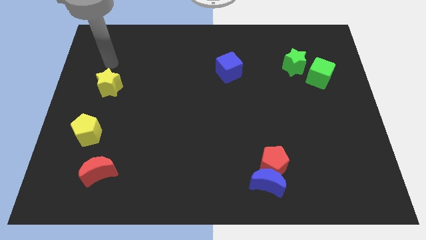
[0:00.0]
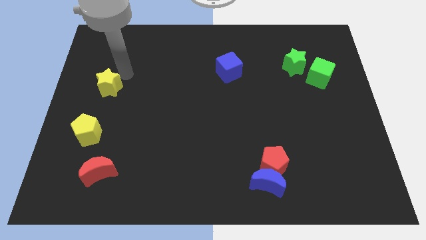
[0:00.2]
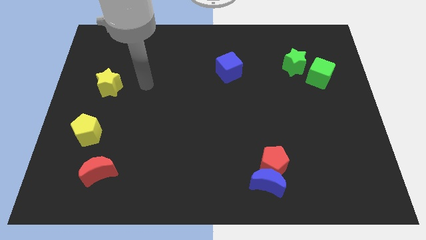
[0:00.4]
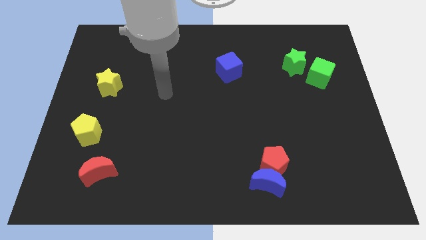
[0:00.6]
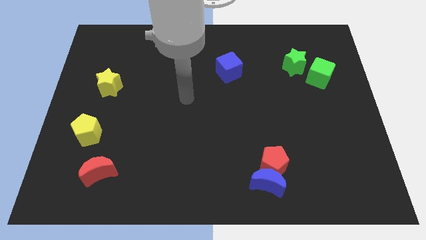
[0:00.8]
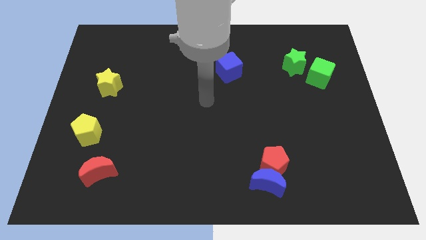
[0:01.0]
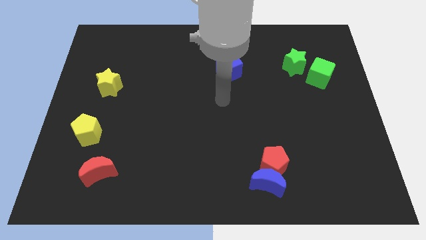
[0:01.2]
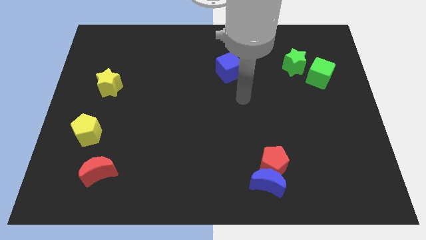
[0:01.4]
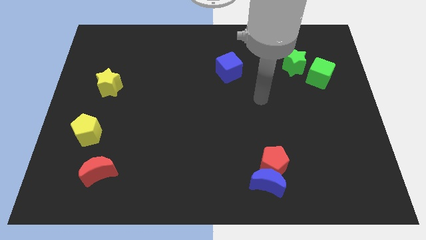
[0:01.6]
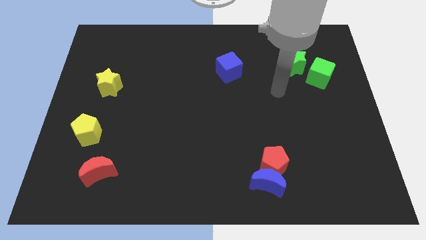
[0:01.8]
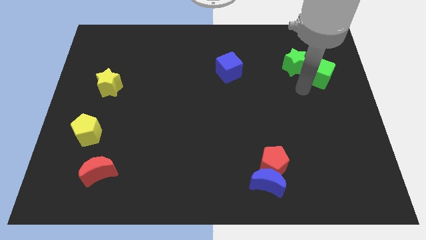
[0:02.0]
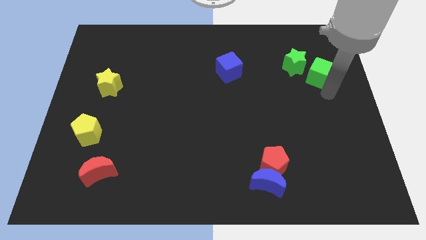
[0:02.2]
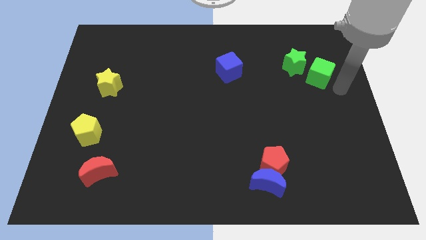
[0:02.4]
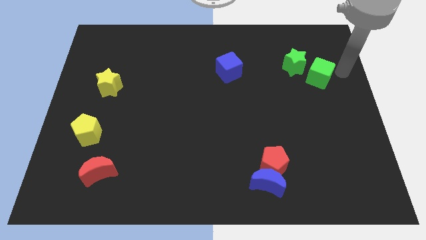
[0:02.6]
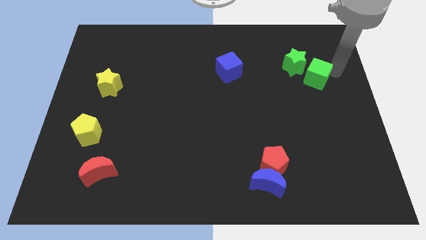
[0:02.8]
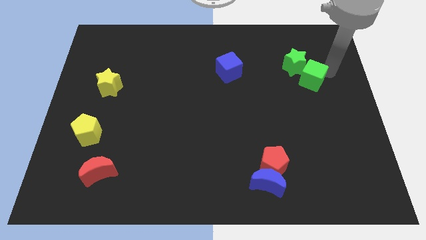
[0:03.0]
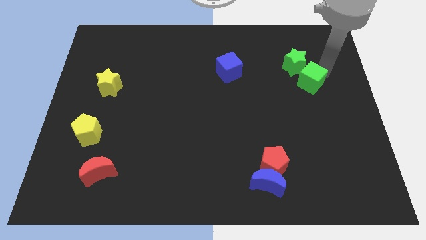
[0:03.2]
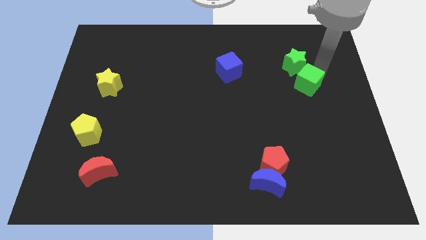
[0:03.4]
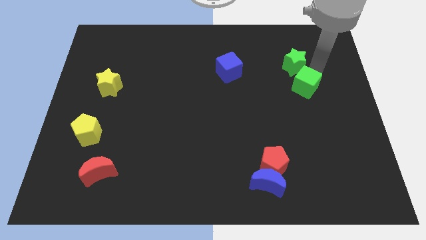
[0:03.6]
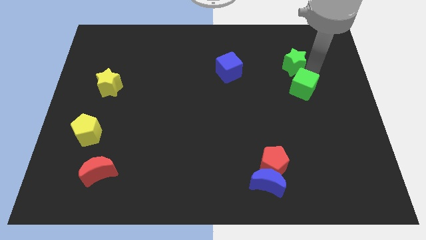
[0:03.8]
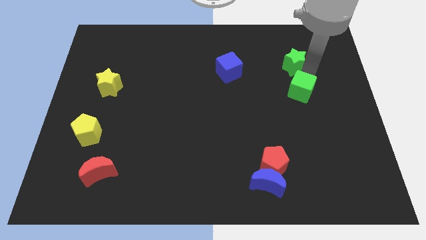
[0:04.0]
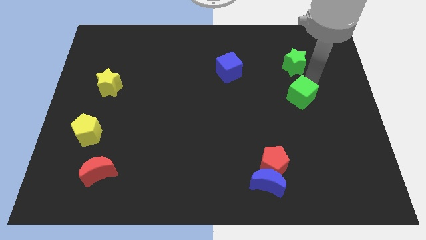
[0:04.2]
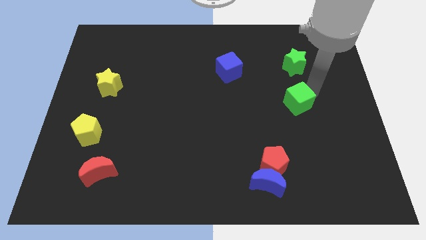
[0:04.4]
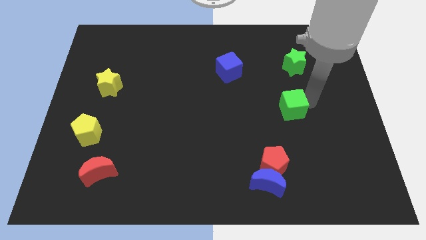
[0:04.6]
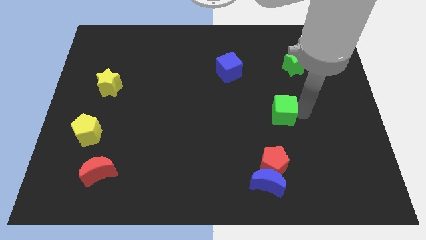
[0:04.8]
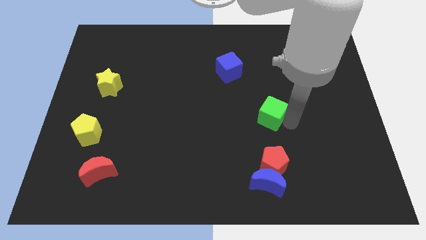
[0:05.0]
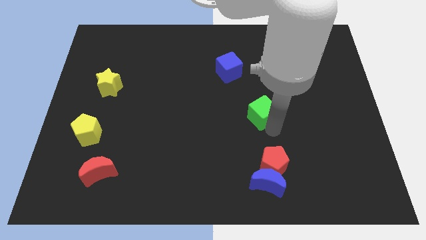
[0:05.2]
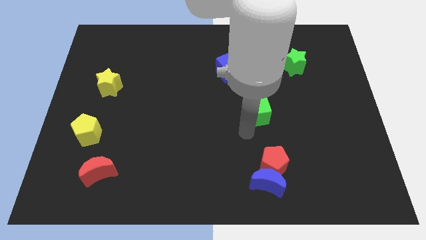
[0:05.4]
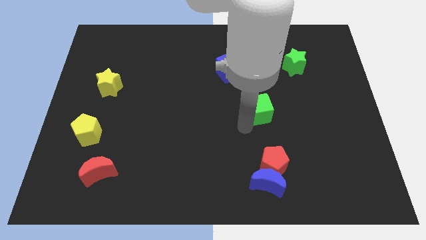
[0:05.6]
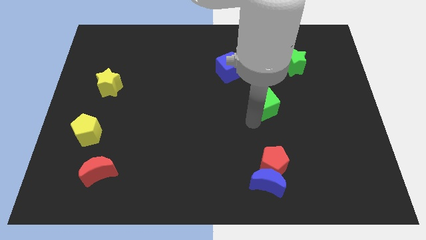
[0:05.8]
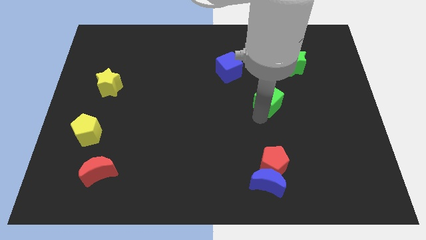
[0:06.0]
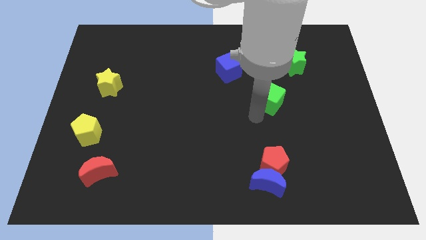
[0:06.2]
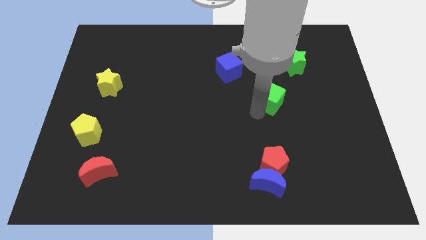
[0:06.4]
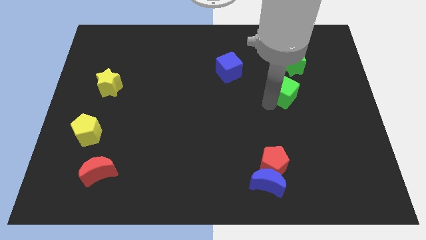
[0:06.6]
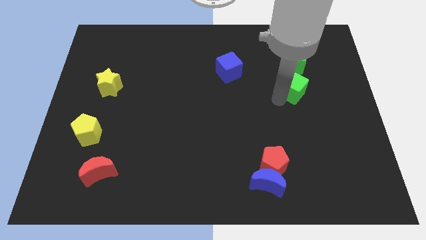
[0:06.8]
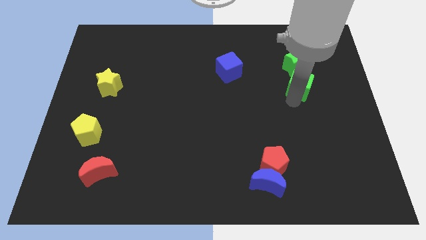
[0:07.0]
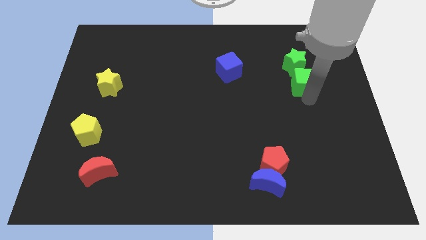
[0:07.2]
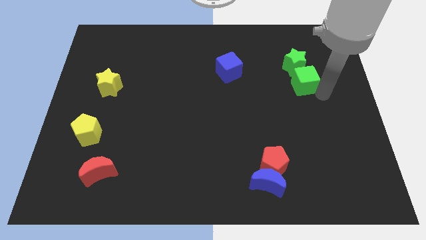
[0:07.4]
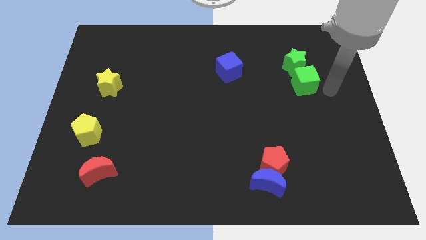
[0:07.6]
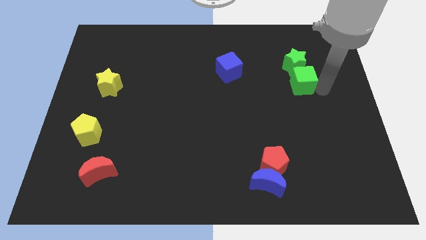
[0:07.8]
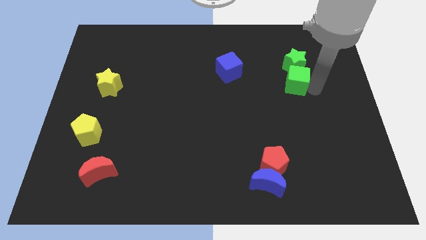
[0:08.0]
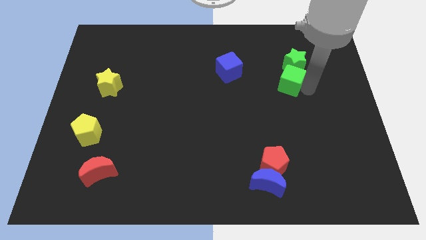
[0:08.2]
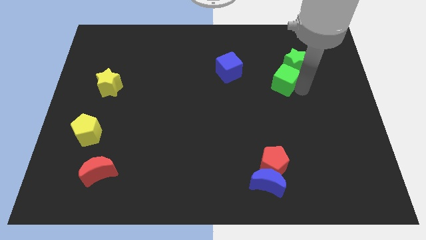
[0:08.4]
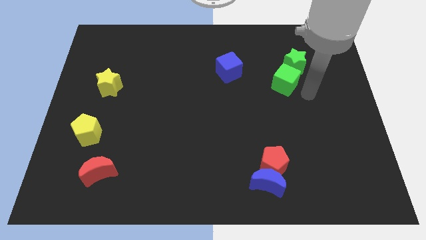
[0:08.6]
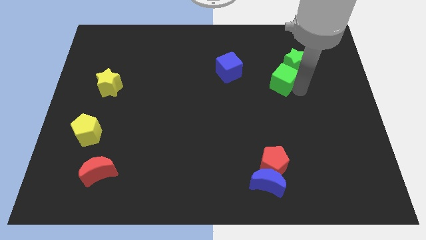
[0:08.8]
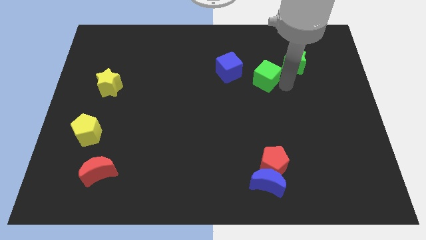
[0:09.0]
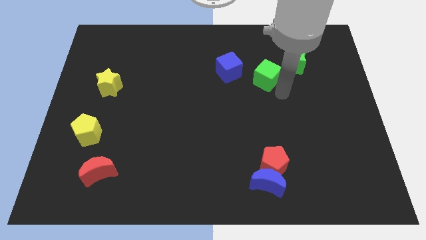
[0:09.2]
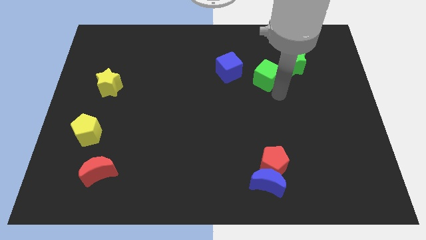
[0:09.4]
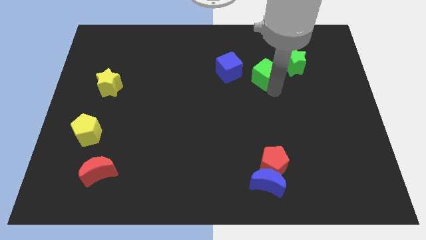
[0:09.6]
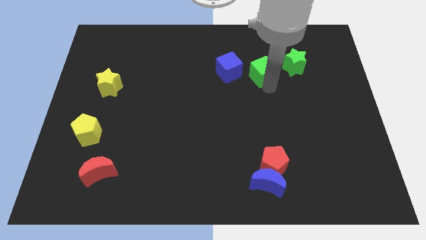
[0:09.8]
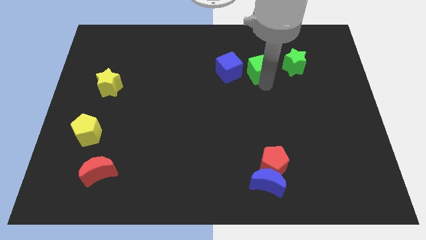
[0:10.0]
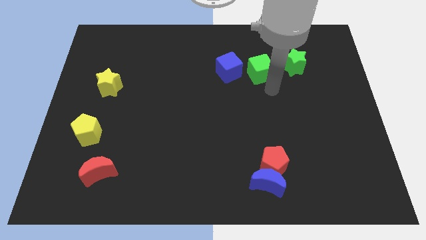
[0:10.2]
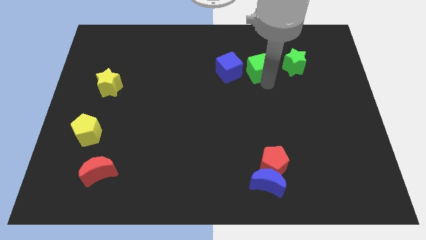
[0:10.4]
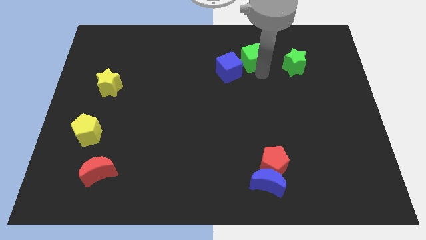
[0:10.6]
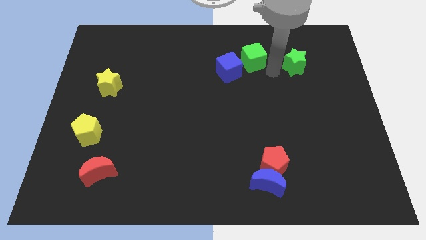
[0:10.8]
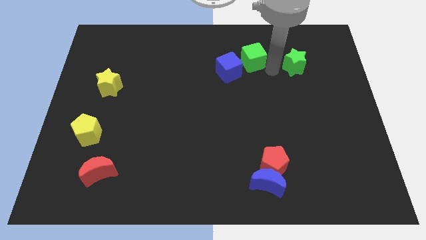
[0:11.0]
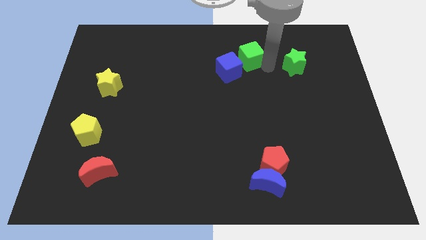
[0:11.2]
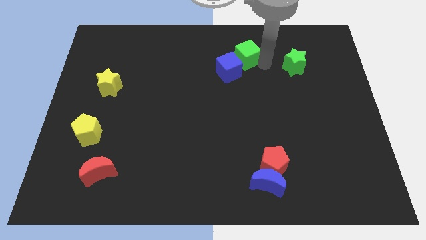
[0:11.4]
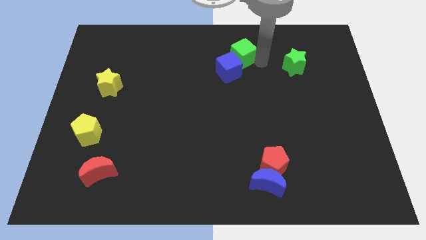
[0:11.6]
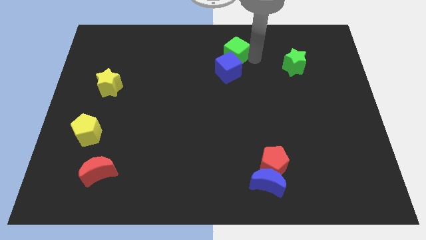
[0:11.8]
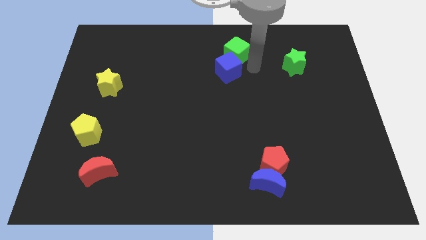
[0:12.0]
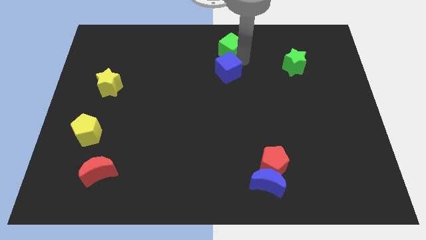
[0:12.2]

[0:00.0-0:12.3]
push the green cube to the top
